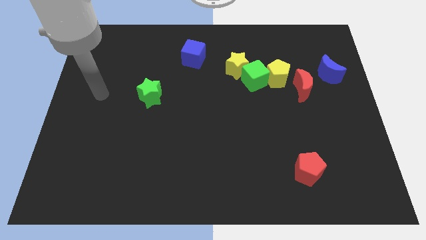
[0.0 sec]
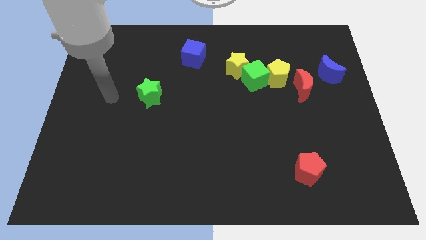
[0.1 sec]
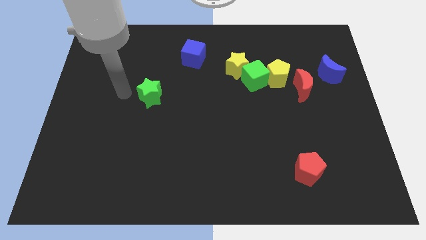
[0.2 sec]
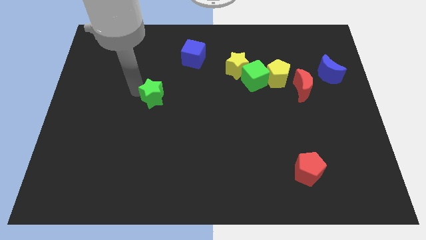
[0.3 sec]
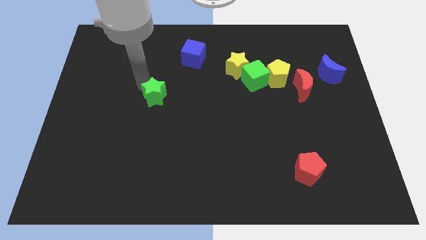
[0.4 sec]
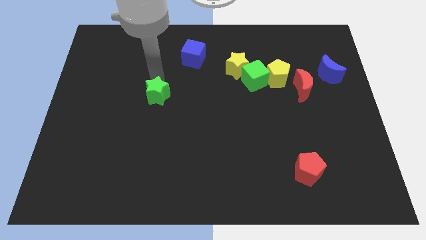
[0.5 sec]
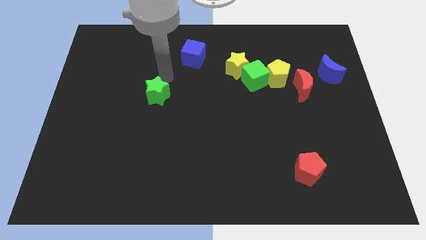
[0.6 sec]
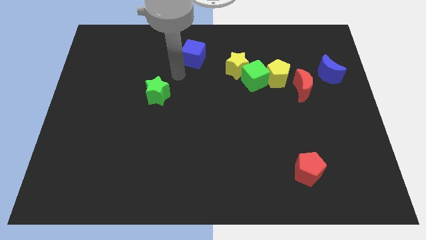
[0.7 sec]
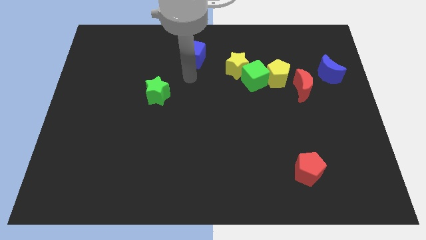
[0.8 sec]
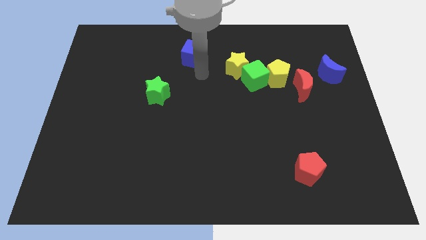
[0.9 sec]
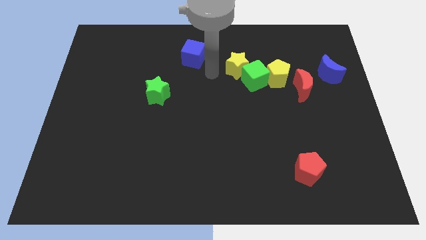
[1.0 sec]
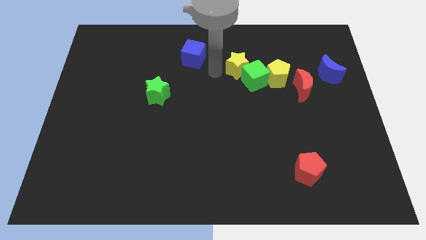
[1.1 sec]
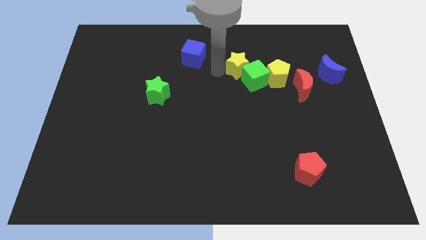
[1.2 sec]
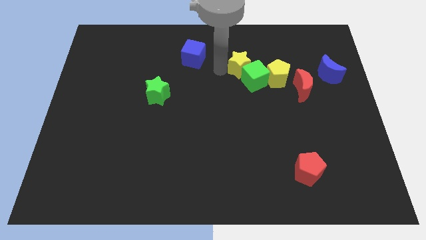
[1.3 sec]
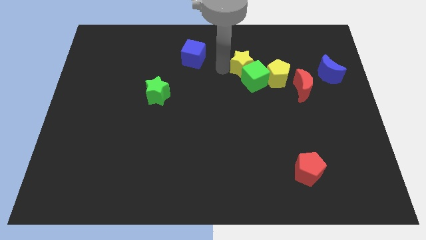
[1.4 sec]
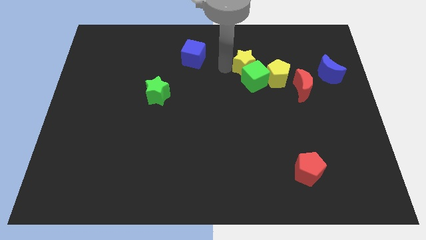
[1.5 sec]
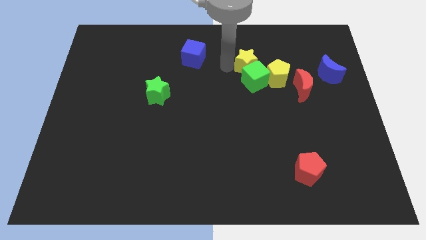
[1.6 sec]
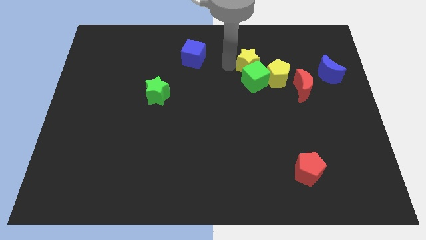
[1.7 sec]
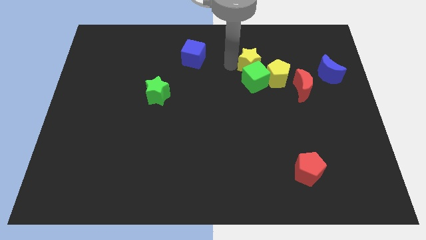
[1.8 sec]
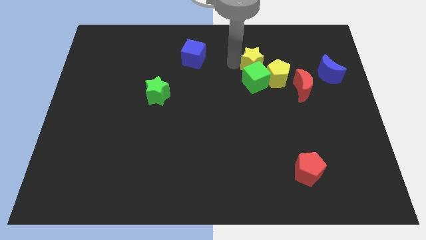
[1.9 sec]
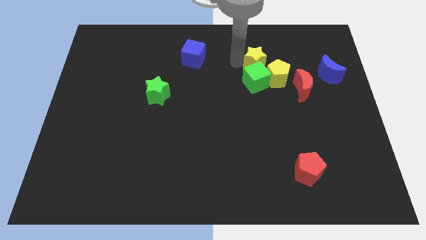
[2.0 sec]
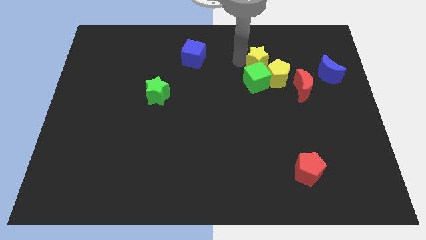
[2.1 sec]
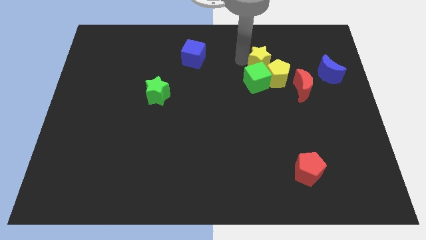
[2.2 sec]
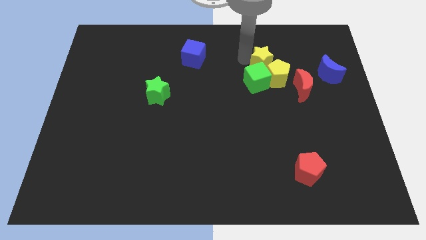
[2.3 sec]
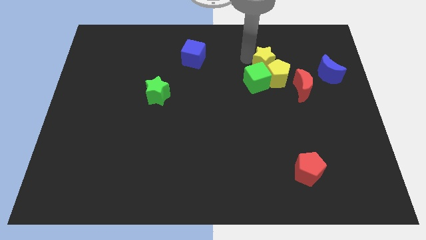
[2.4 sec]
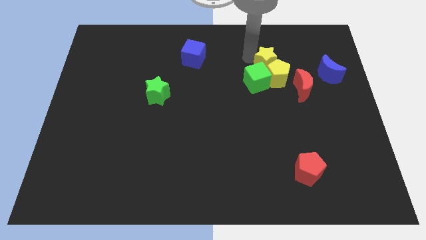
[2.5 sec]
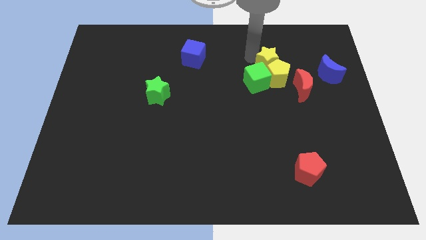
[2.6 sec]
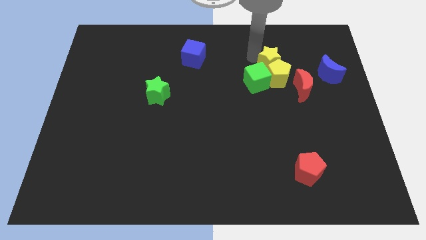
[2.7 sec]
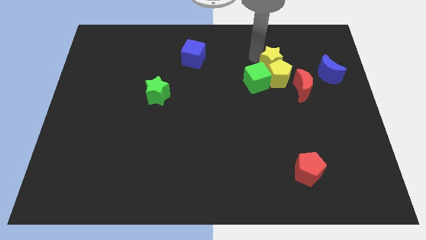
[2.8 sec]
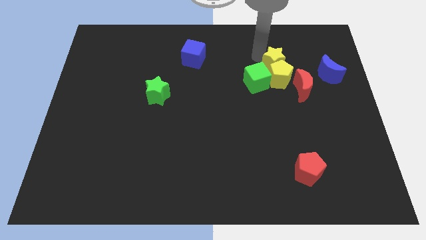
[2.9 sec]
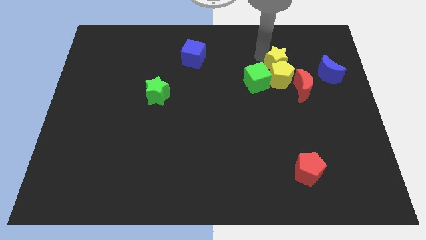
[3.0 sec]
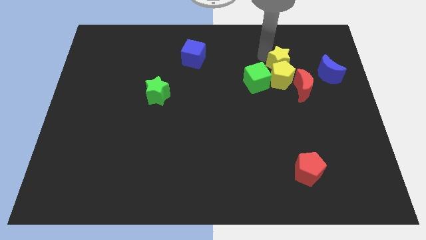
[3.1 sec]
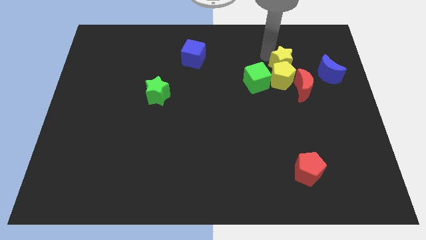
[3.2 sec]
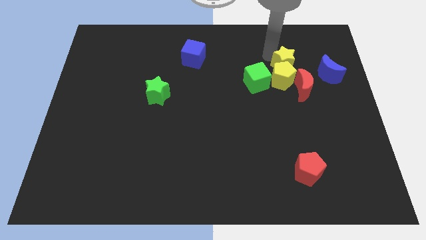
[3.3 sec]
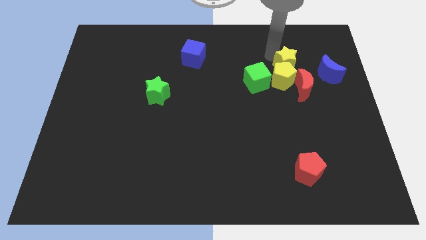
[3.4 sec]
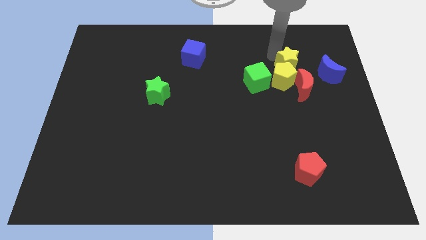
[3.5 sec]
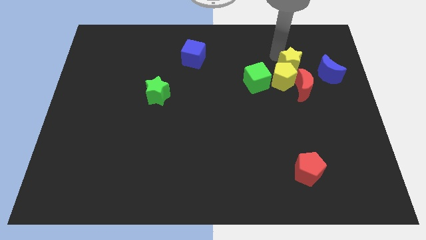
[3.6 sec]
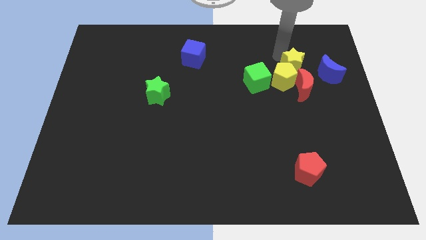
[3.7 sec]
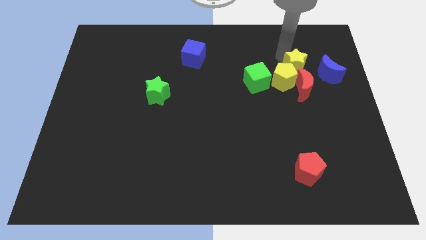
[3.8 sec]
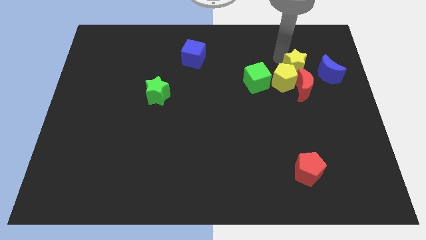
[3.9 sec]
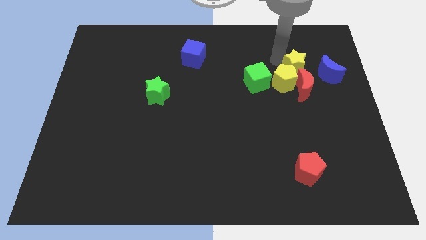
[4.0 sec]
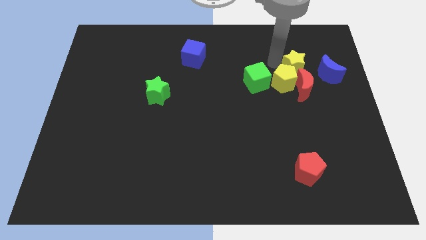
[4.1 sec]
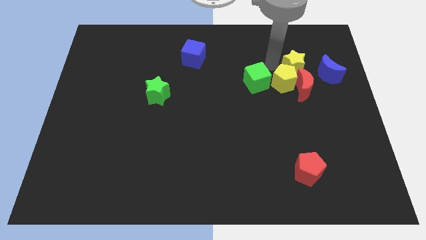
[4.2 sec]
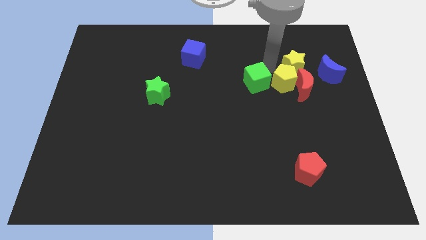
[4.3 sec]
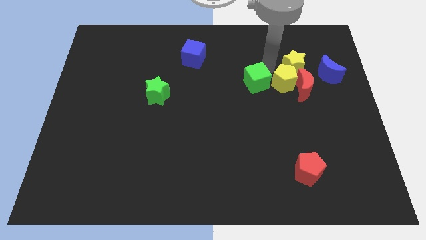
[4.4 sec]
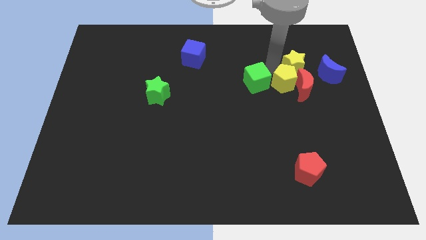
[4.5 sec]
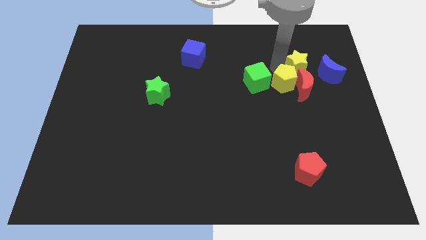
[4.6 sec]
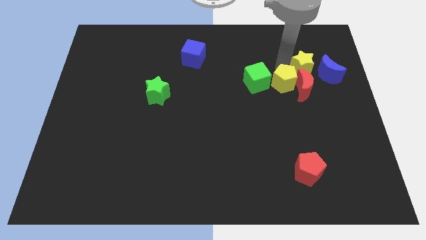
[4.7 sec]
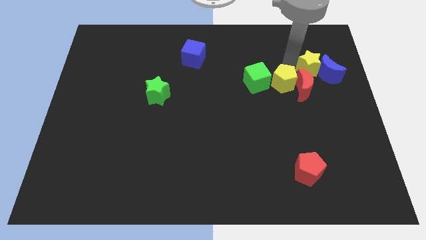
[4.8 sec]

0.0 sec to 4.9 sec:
slide the yellow star close to the blue moon

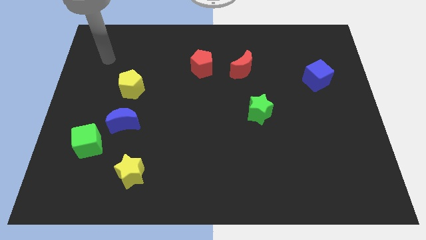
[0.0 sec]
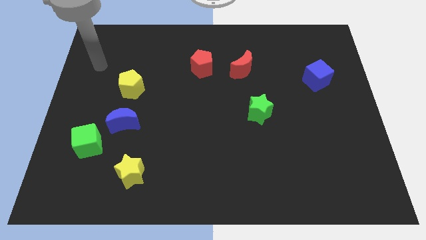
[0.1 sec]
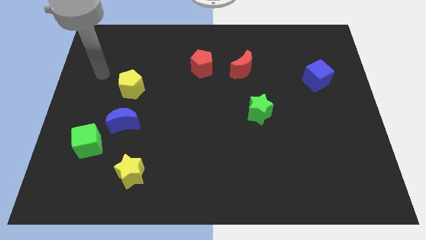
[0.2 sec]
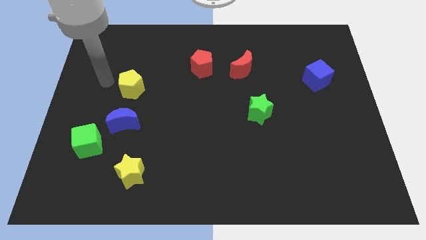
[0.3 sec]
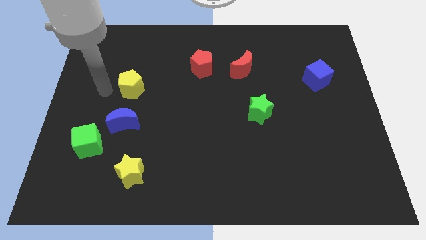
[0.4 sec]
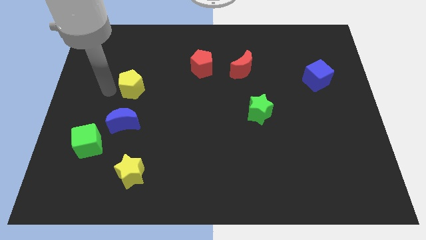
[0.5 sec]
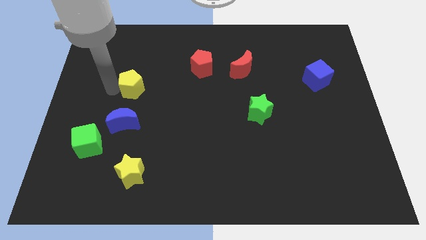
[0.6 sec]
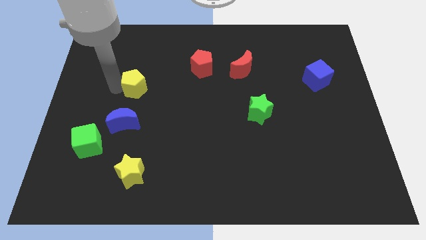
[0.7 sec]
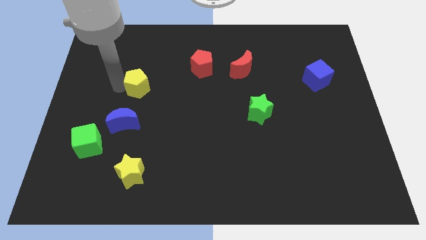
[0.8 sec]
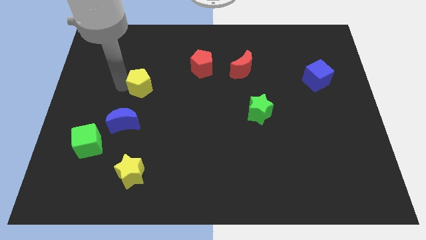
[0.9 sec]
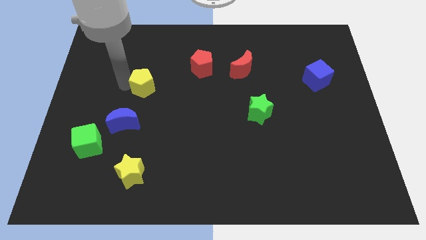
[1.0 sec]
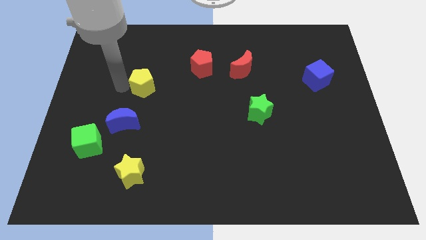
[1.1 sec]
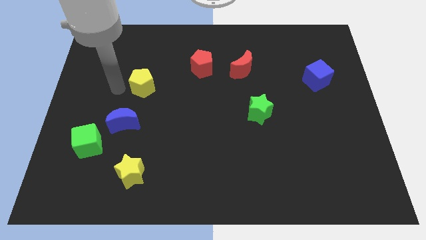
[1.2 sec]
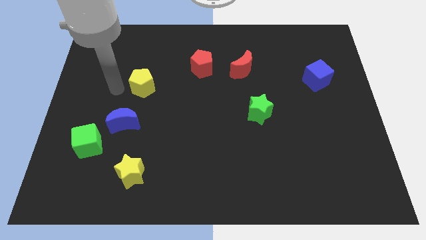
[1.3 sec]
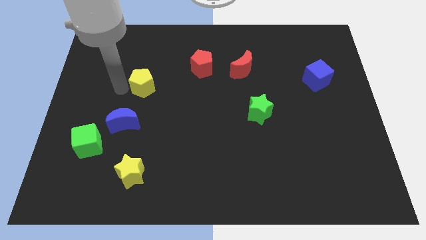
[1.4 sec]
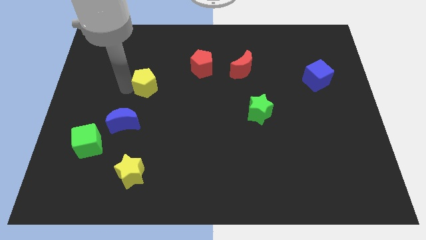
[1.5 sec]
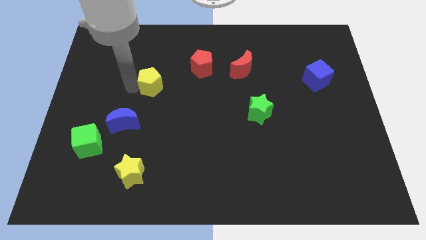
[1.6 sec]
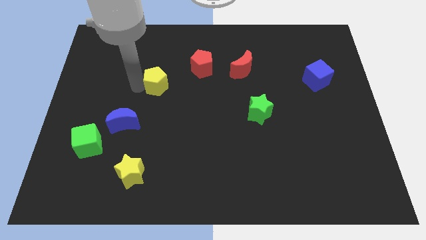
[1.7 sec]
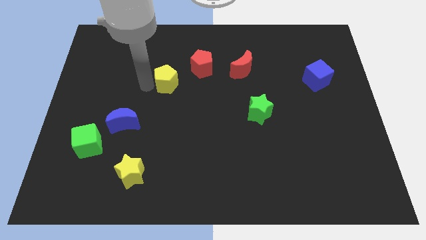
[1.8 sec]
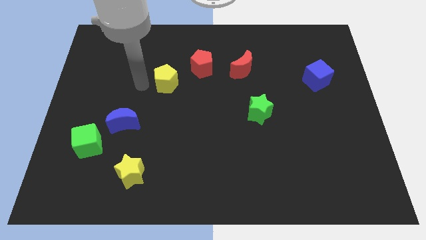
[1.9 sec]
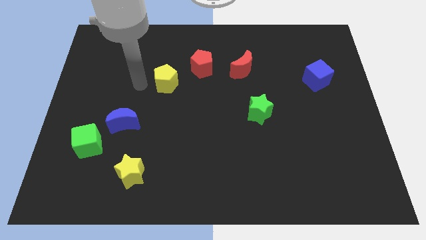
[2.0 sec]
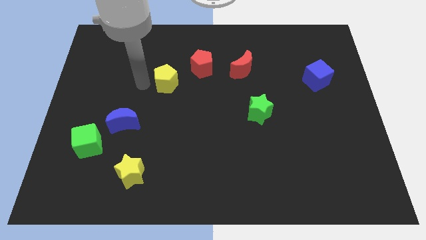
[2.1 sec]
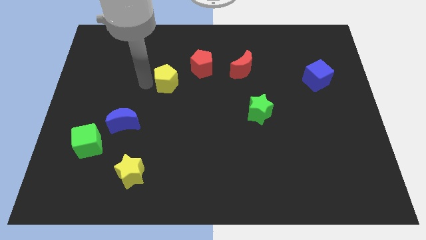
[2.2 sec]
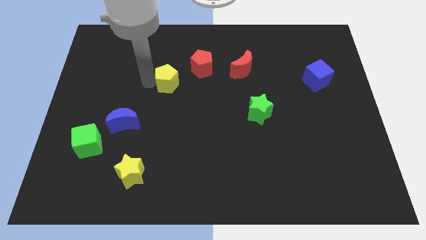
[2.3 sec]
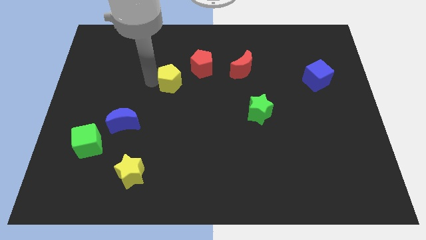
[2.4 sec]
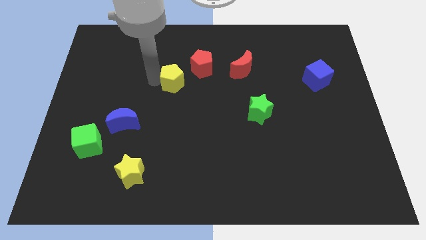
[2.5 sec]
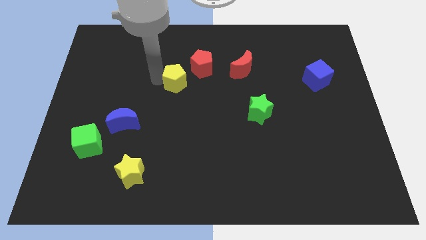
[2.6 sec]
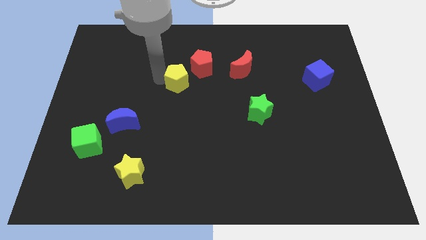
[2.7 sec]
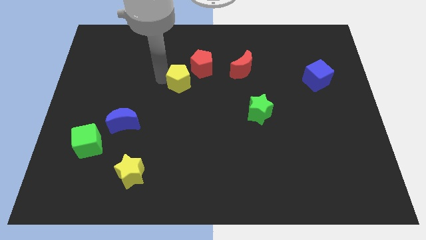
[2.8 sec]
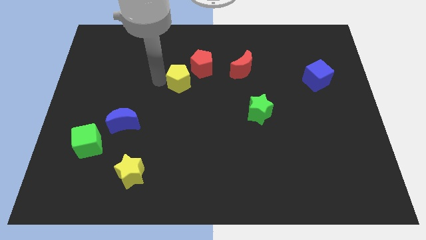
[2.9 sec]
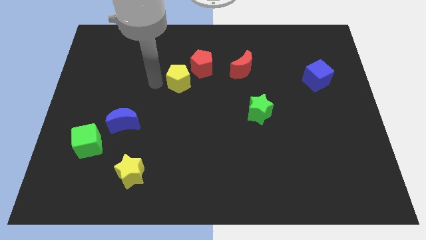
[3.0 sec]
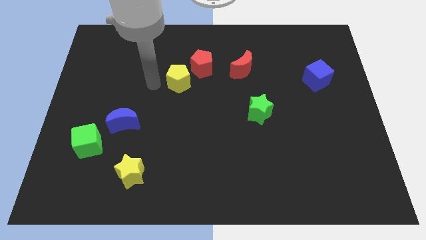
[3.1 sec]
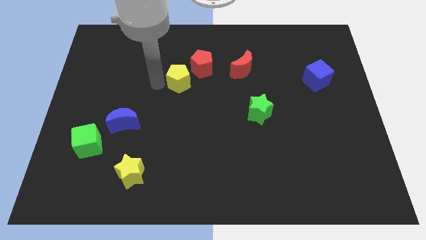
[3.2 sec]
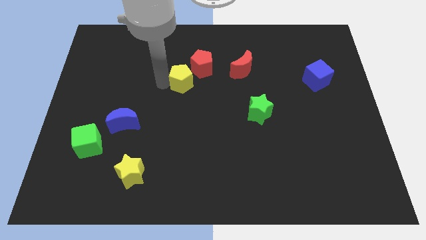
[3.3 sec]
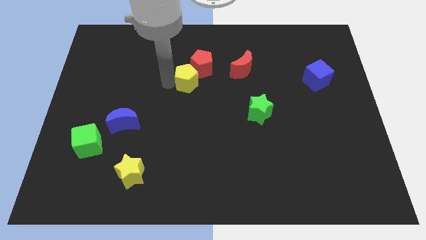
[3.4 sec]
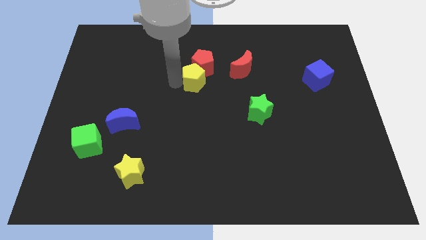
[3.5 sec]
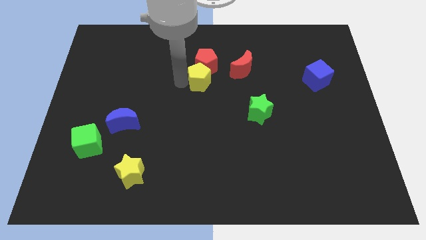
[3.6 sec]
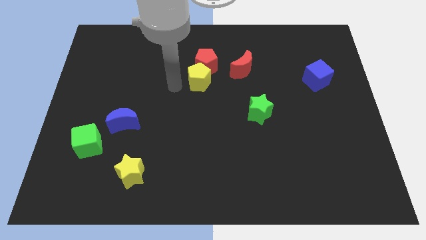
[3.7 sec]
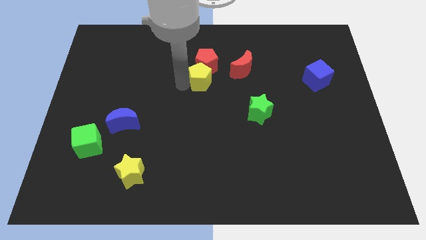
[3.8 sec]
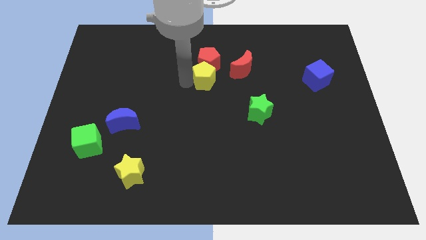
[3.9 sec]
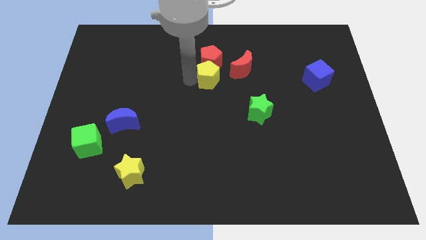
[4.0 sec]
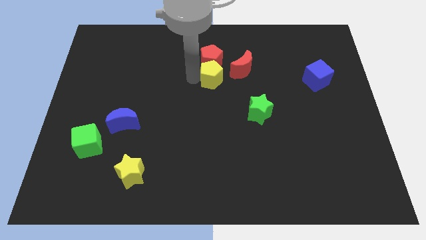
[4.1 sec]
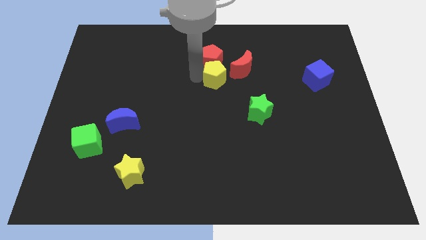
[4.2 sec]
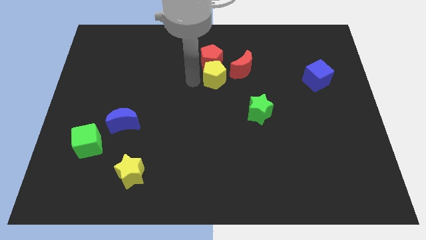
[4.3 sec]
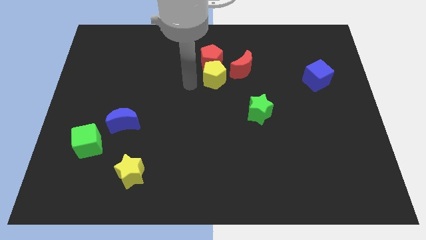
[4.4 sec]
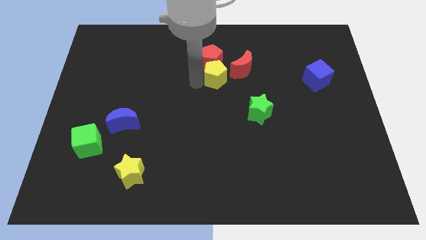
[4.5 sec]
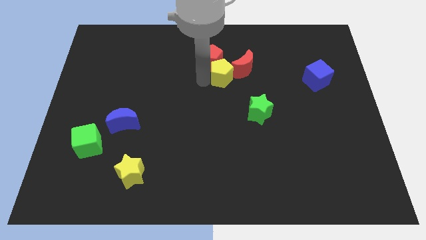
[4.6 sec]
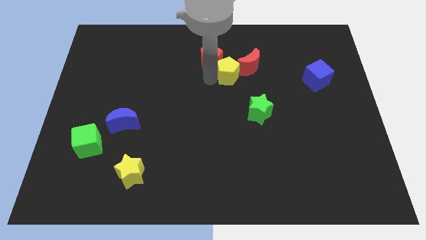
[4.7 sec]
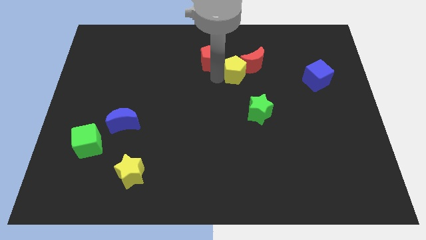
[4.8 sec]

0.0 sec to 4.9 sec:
push the yellow pentagon close to the red moon
